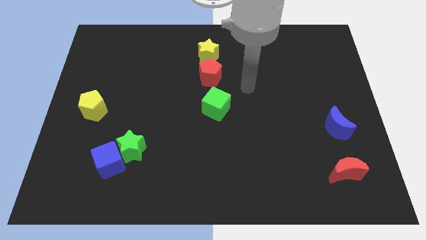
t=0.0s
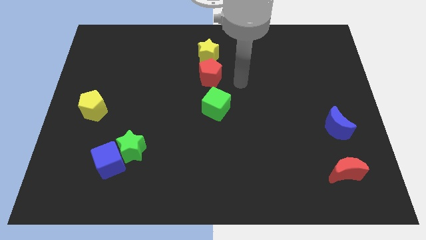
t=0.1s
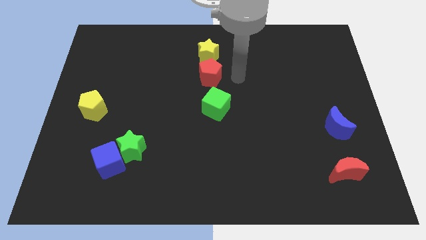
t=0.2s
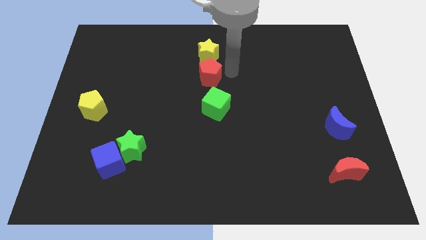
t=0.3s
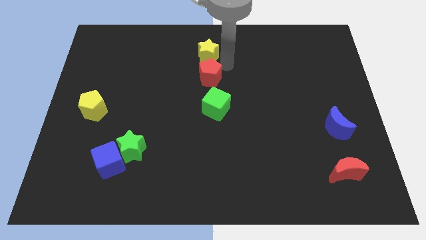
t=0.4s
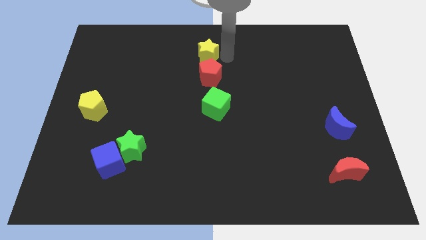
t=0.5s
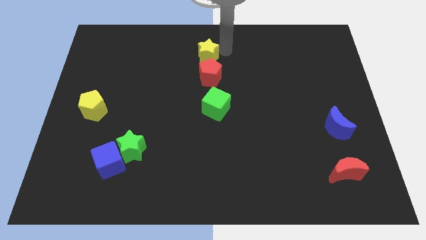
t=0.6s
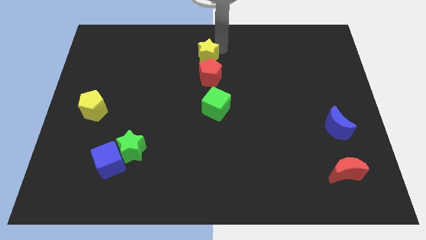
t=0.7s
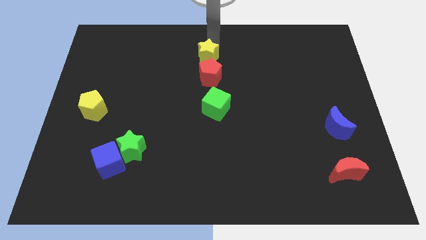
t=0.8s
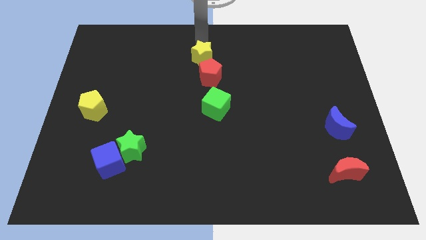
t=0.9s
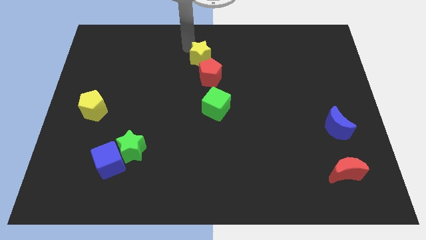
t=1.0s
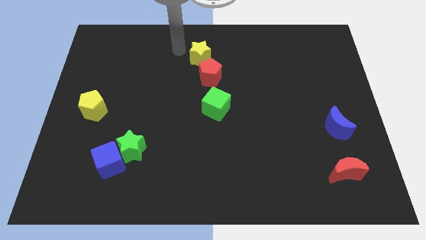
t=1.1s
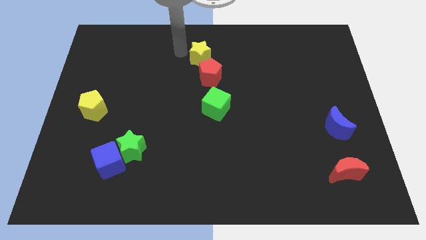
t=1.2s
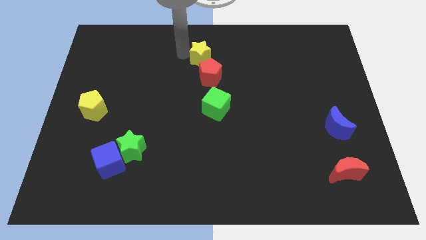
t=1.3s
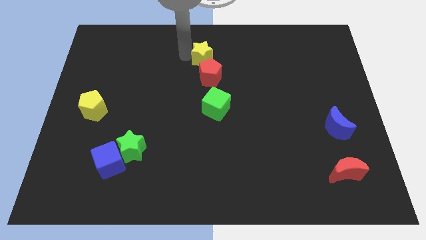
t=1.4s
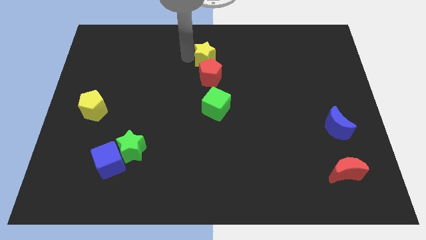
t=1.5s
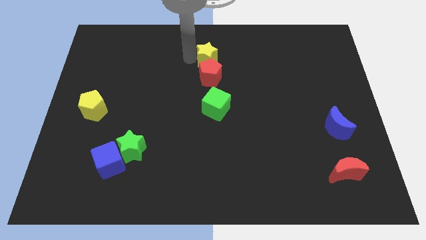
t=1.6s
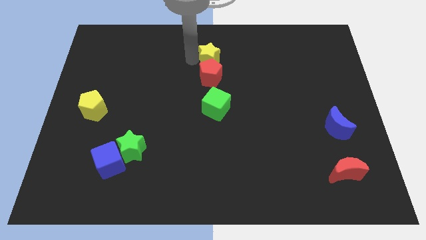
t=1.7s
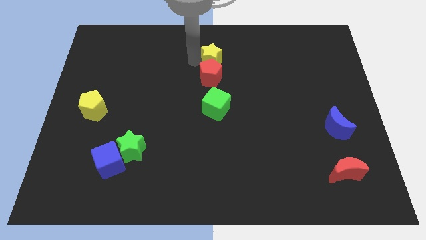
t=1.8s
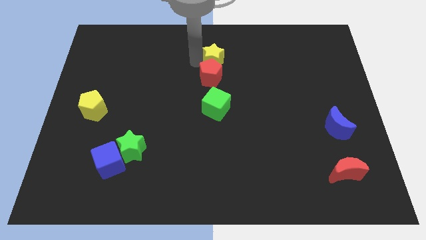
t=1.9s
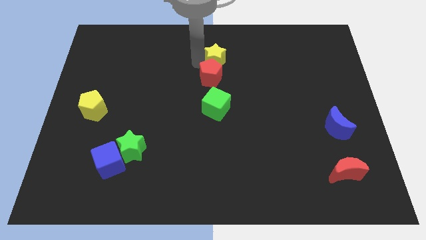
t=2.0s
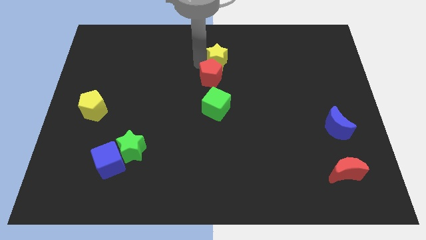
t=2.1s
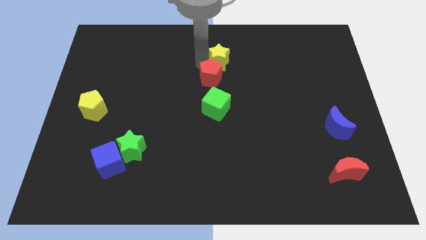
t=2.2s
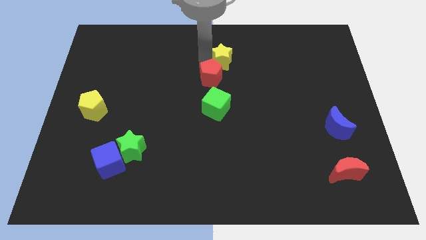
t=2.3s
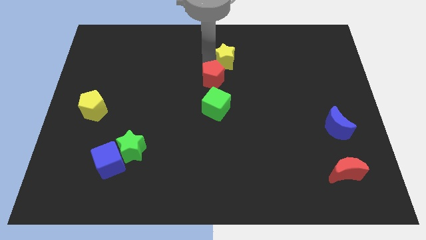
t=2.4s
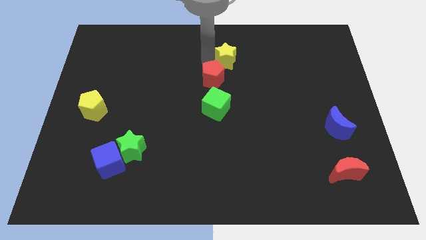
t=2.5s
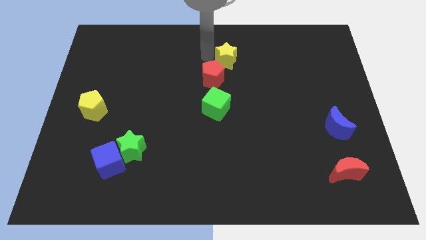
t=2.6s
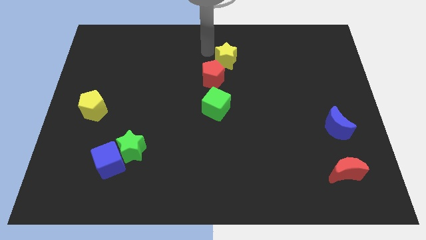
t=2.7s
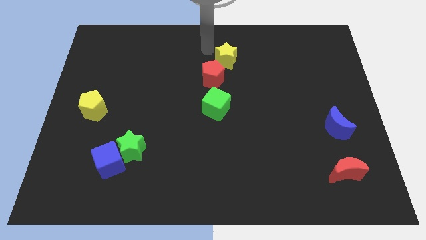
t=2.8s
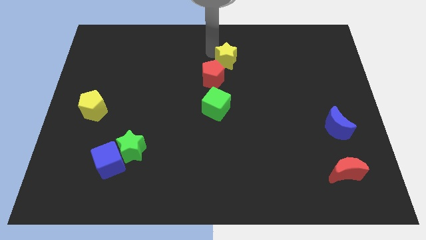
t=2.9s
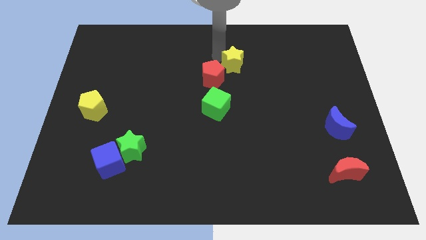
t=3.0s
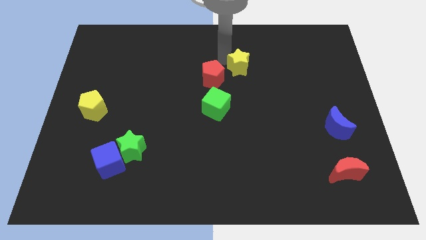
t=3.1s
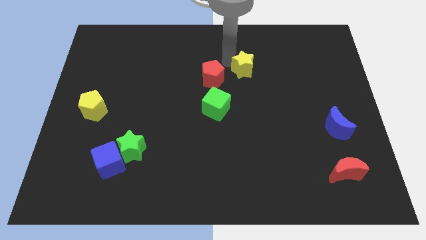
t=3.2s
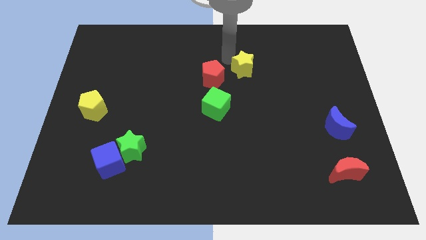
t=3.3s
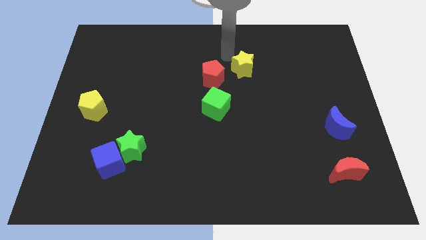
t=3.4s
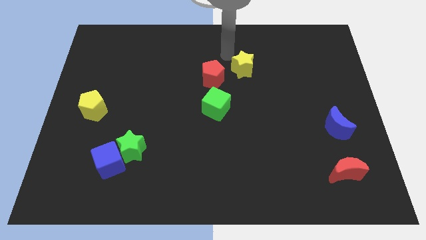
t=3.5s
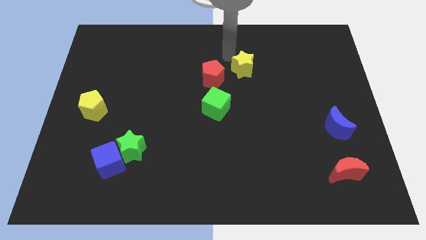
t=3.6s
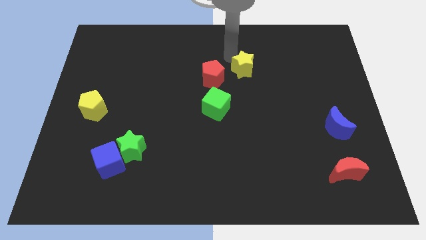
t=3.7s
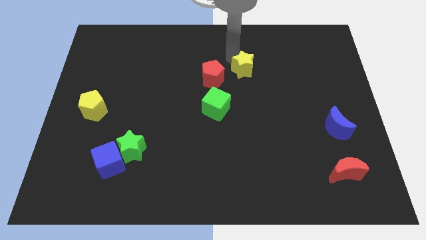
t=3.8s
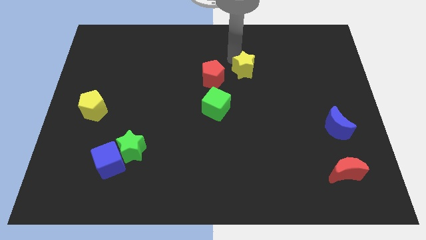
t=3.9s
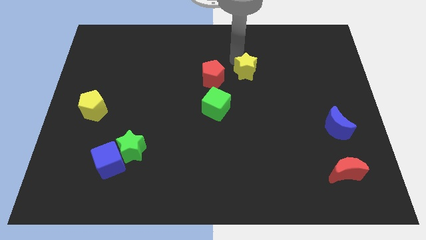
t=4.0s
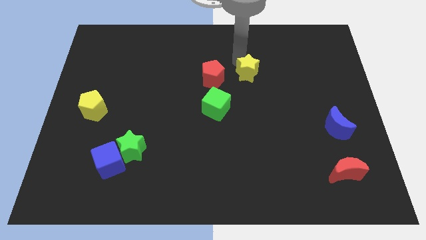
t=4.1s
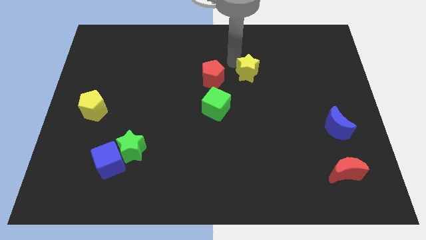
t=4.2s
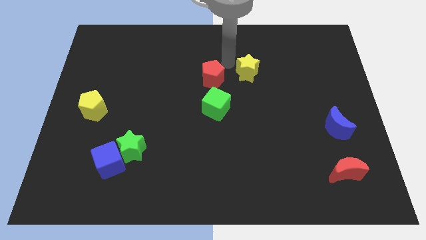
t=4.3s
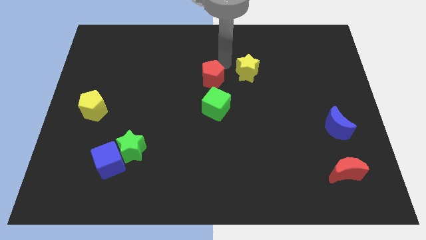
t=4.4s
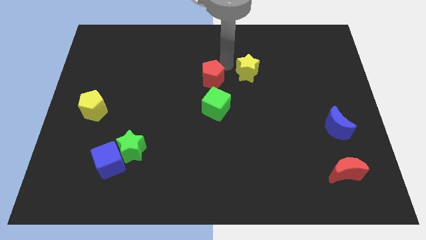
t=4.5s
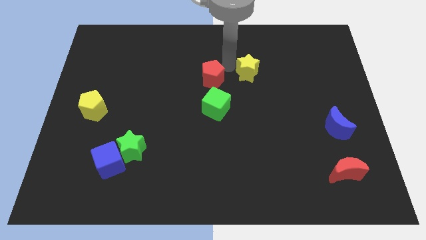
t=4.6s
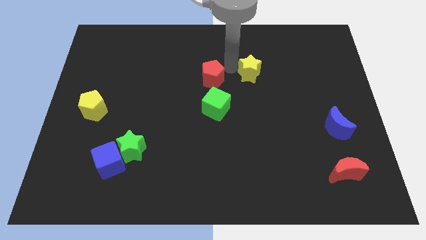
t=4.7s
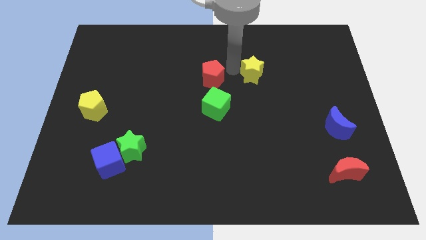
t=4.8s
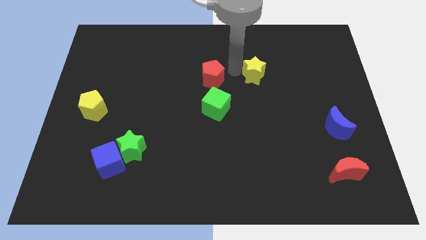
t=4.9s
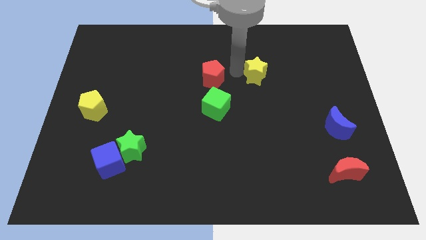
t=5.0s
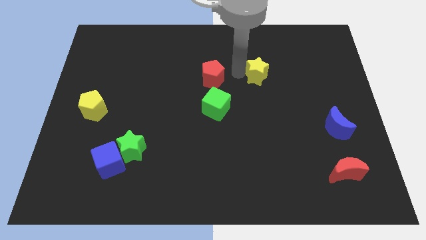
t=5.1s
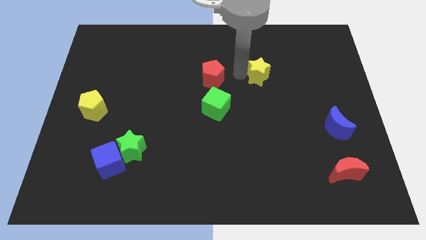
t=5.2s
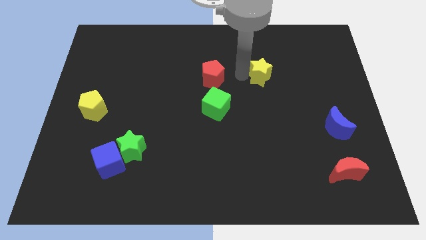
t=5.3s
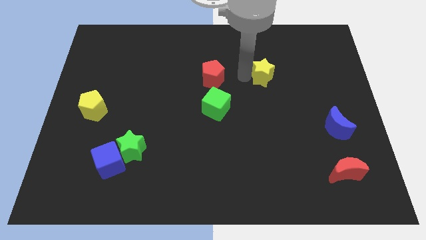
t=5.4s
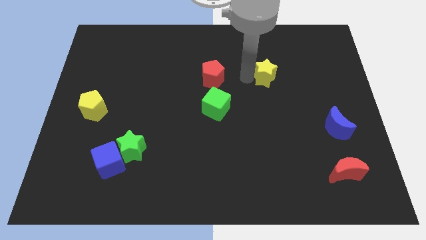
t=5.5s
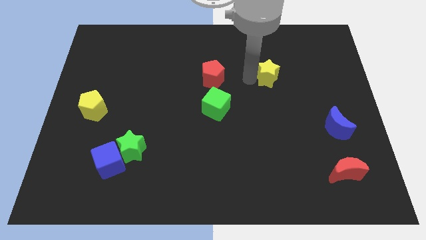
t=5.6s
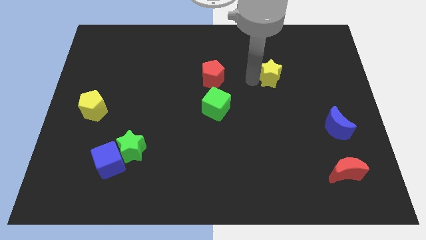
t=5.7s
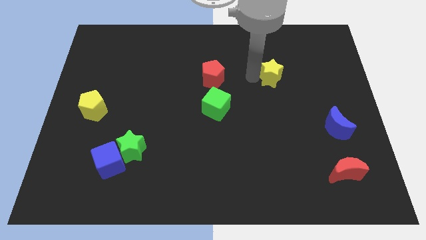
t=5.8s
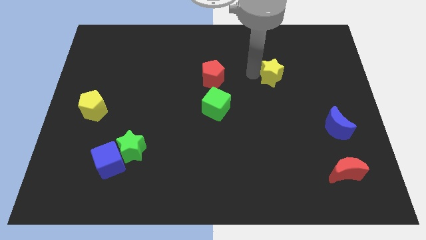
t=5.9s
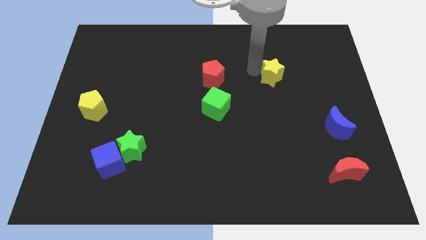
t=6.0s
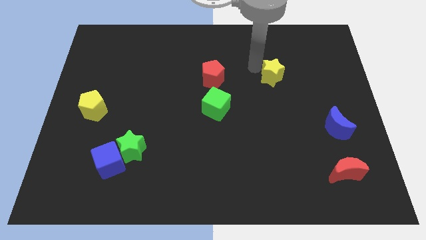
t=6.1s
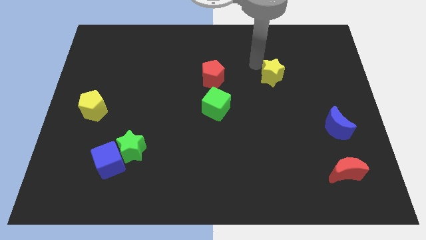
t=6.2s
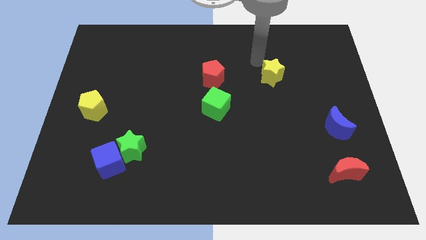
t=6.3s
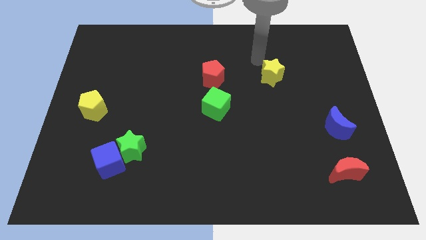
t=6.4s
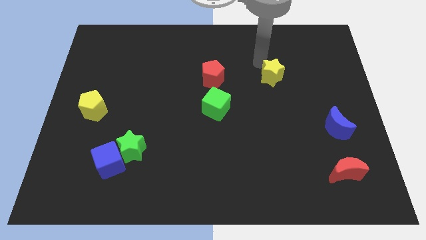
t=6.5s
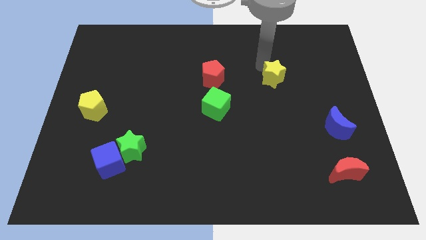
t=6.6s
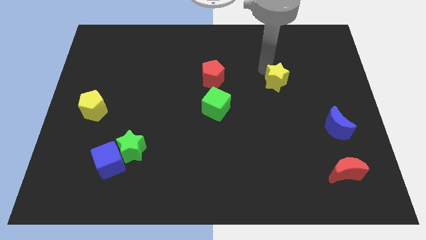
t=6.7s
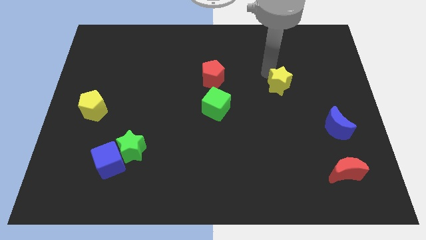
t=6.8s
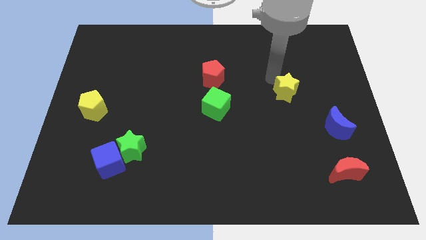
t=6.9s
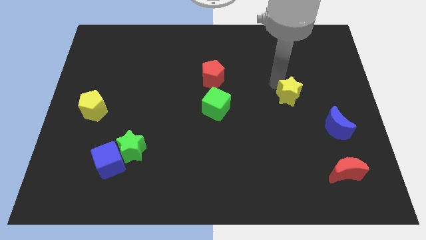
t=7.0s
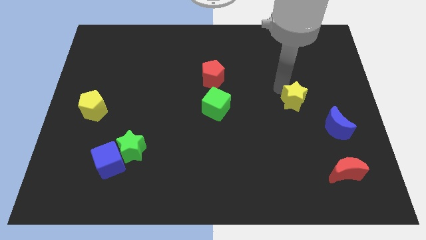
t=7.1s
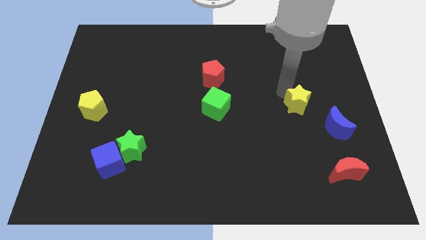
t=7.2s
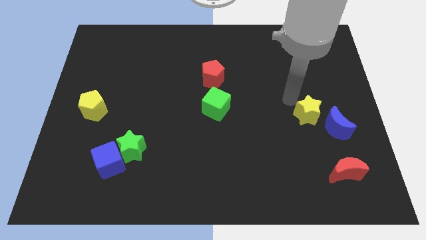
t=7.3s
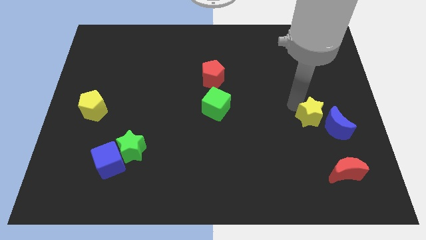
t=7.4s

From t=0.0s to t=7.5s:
move the yellow star next to the blue moon
